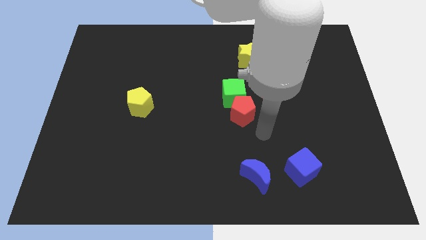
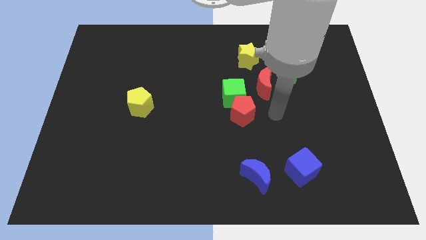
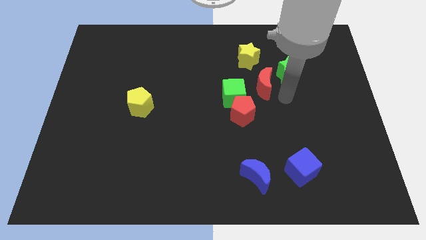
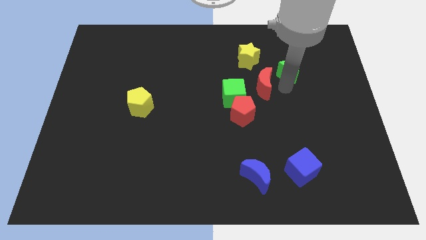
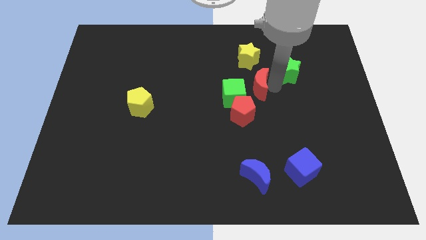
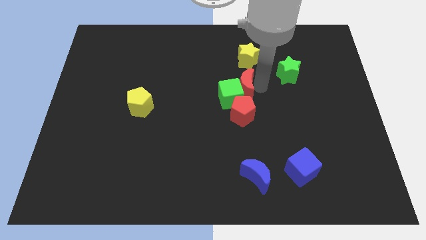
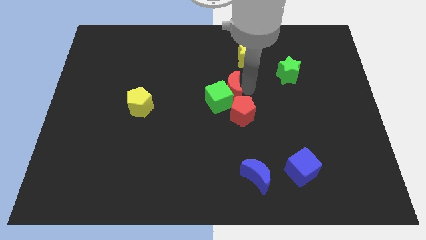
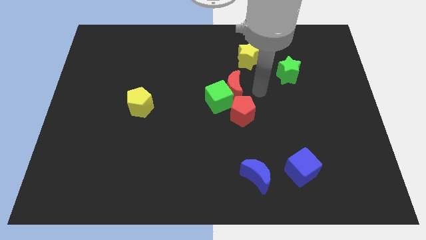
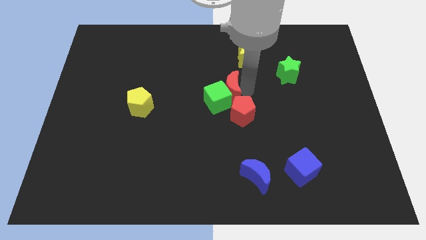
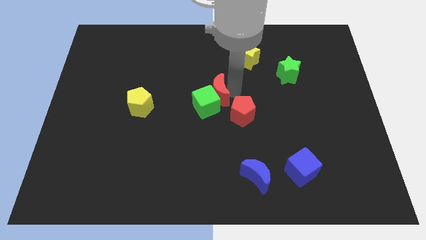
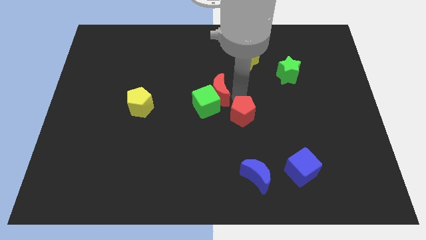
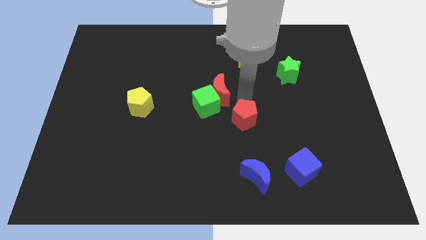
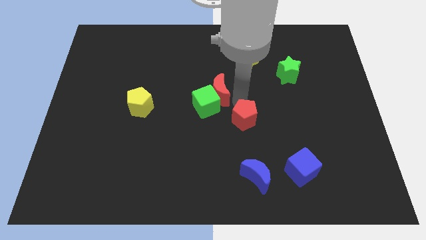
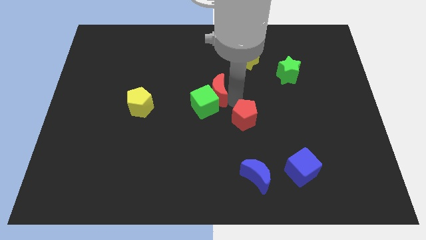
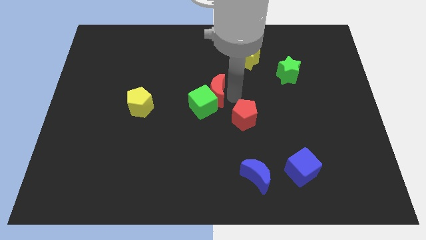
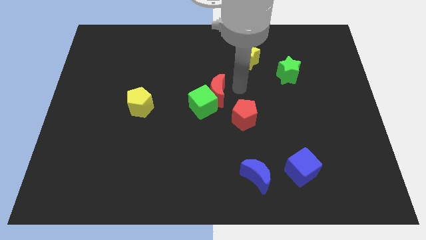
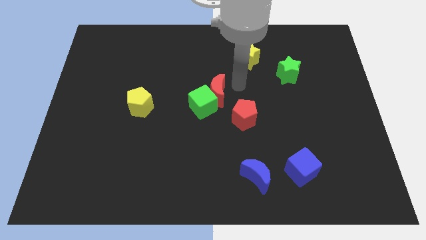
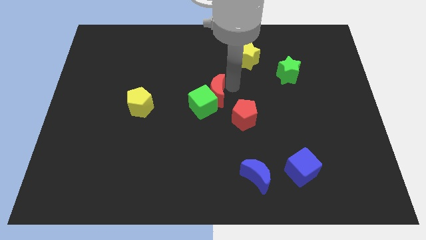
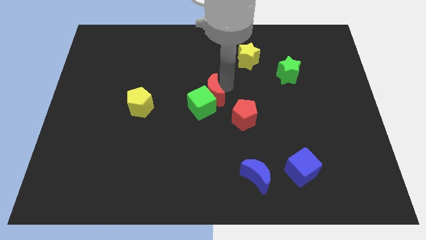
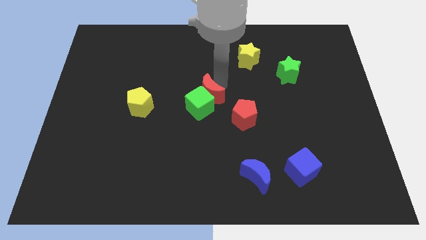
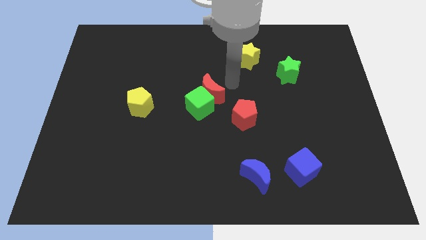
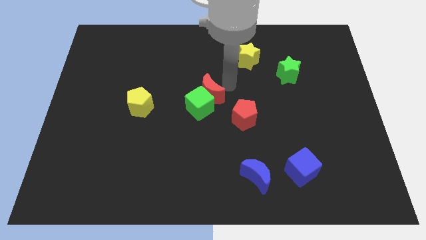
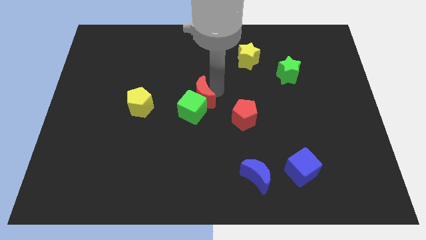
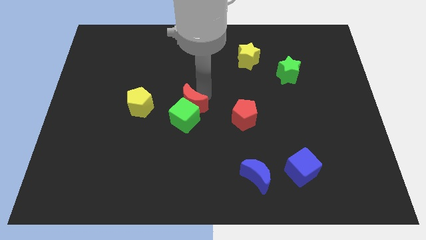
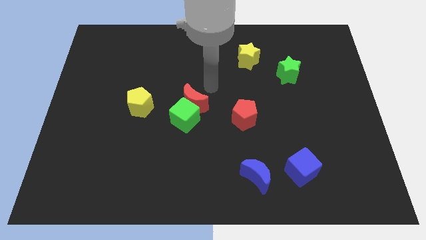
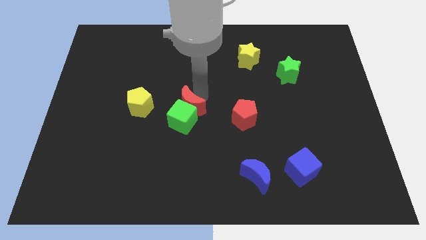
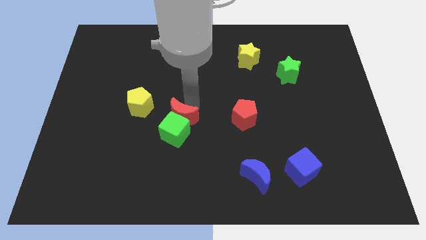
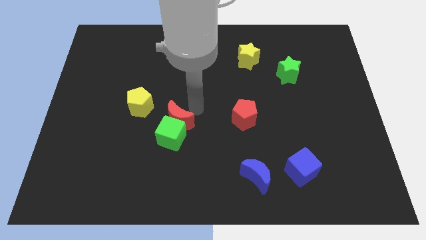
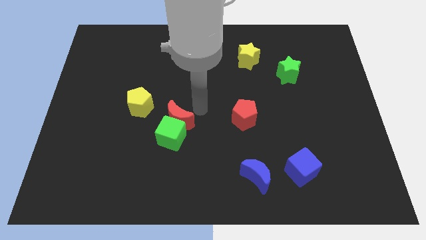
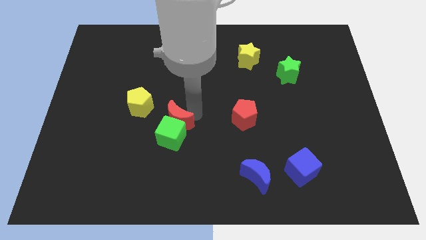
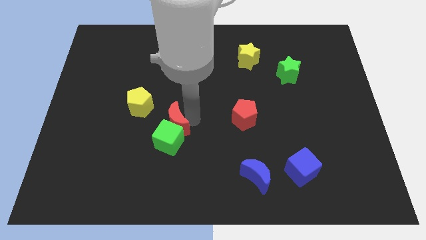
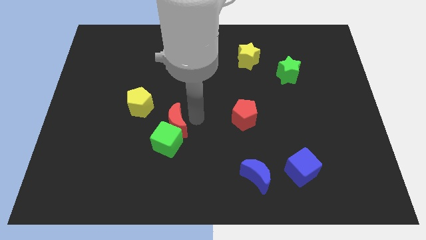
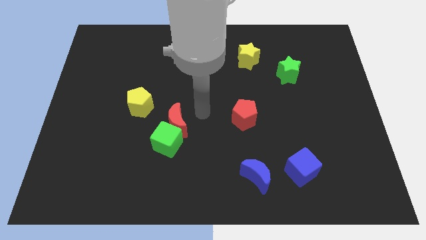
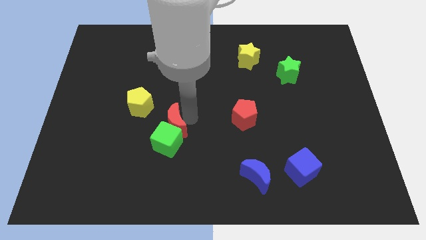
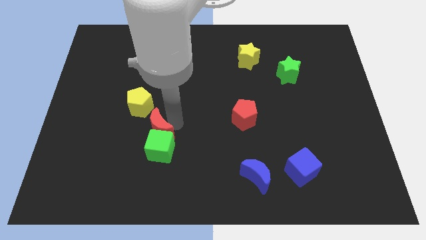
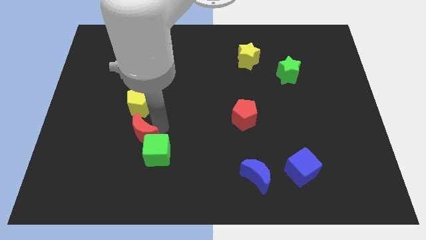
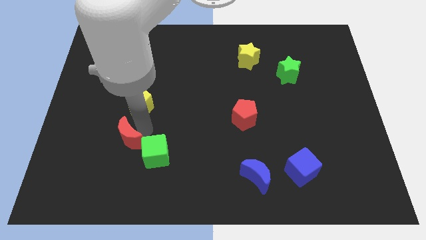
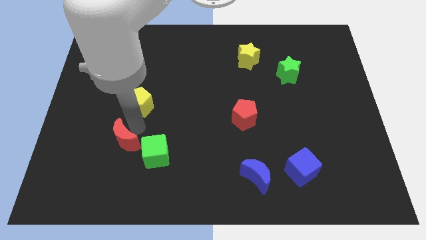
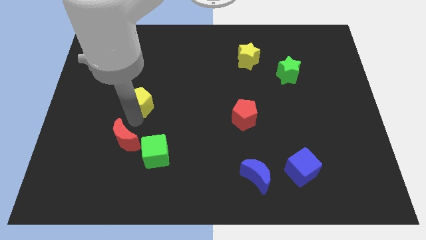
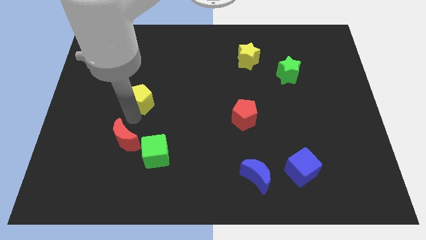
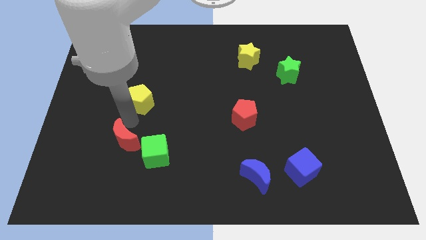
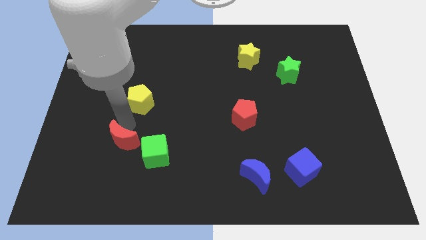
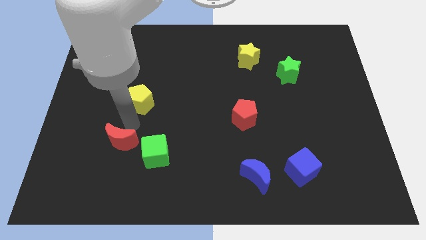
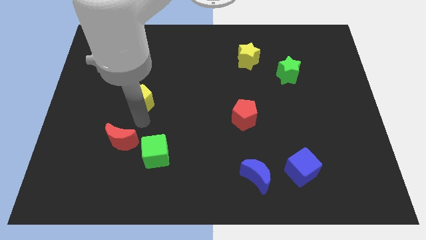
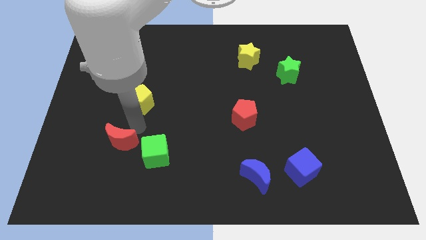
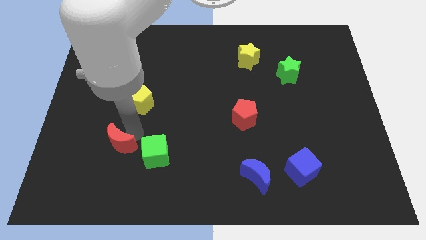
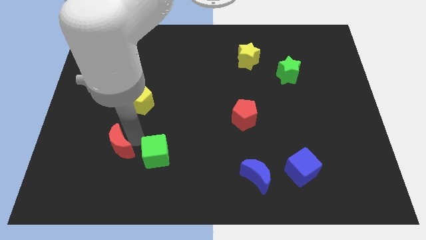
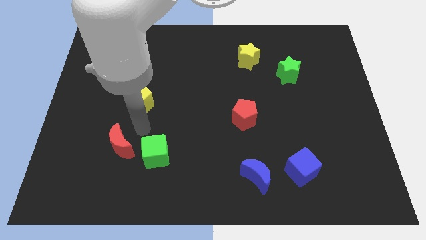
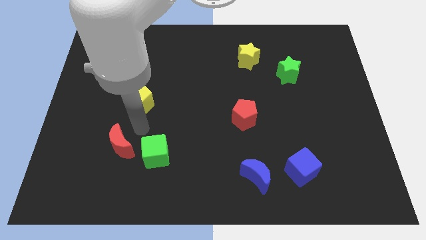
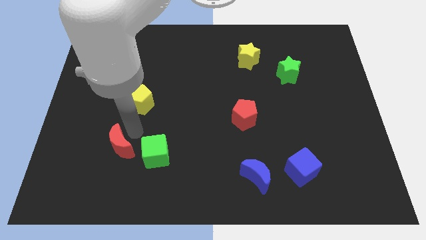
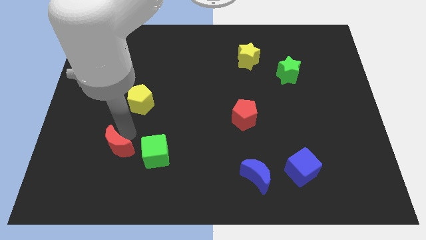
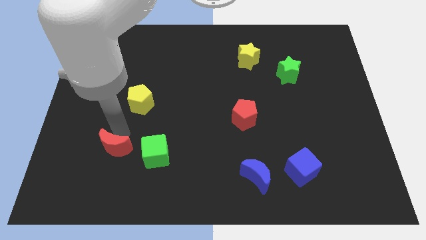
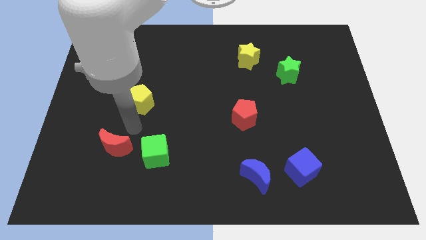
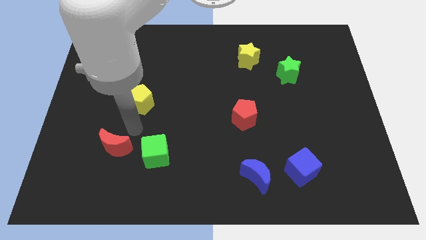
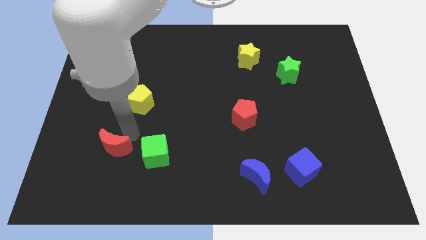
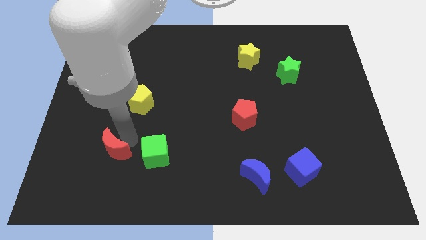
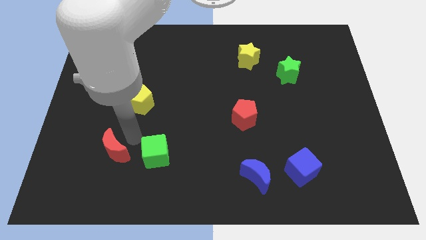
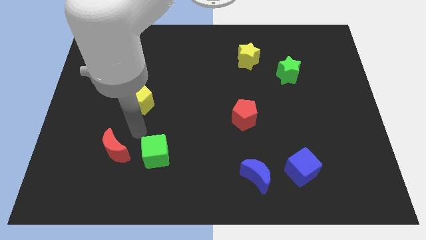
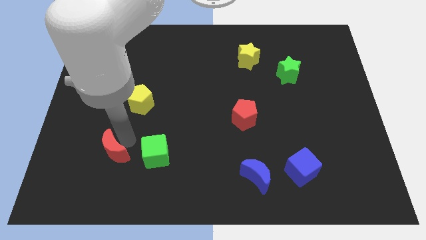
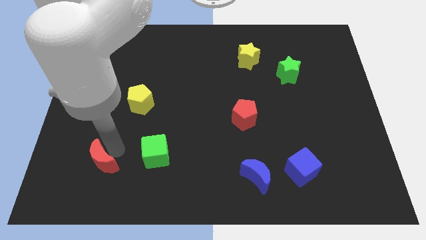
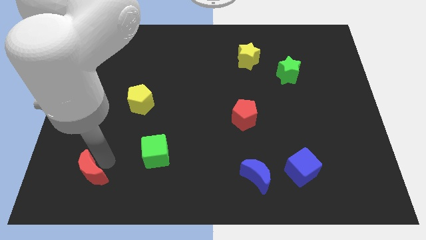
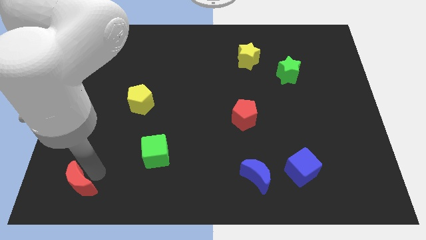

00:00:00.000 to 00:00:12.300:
put the red moon to the bottom left corner

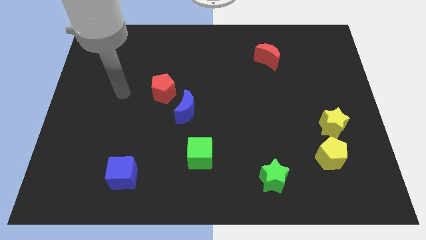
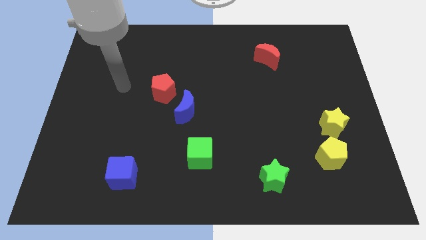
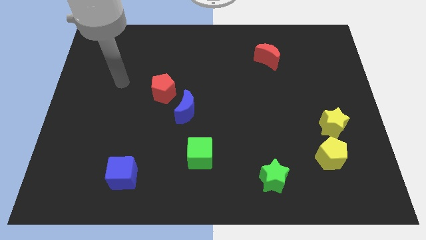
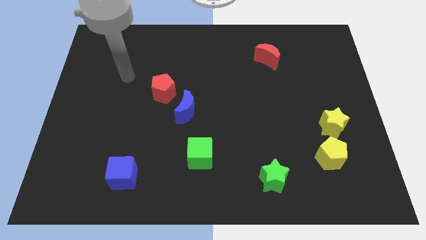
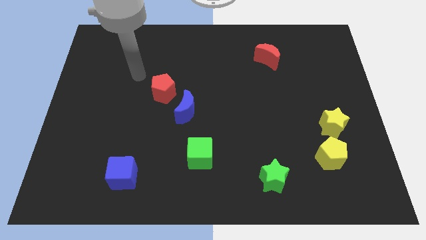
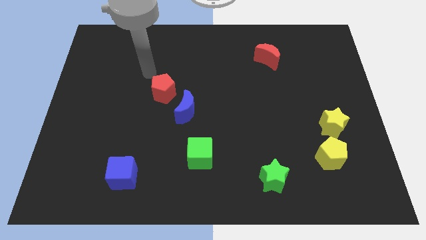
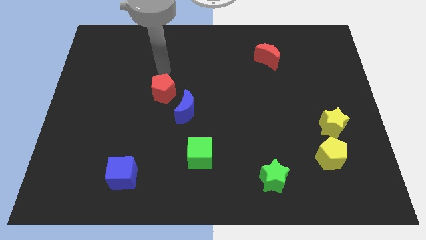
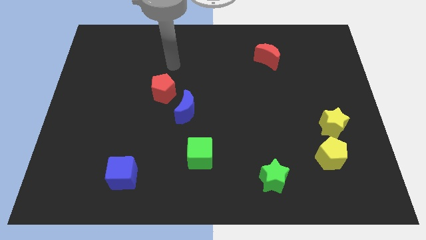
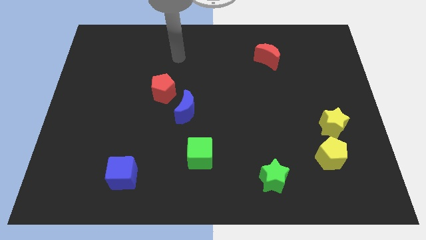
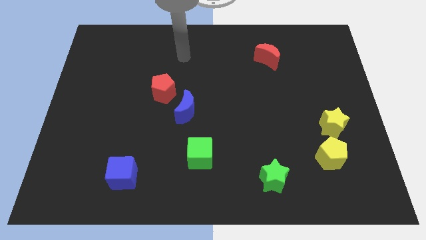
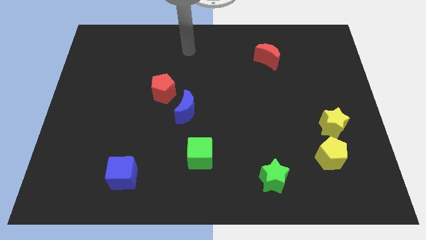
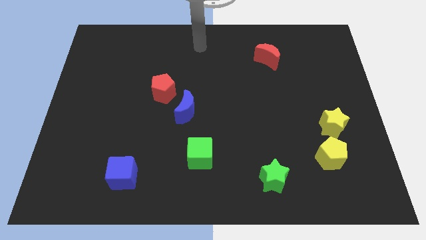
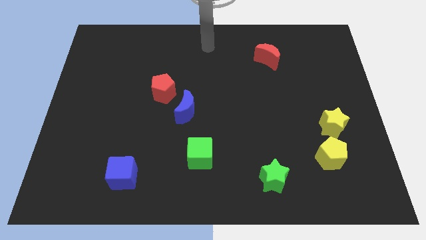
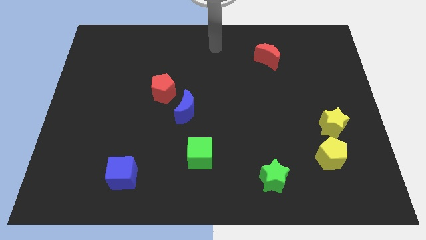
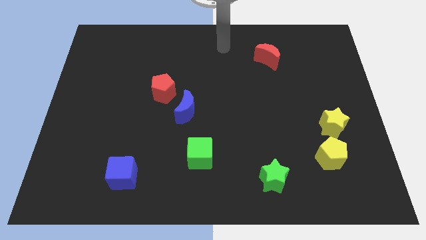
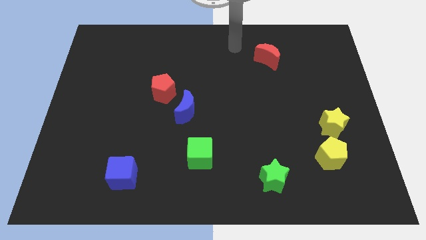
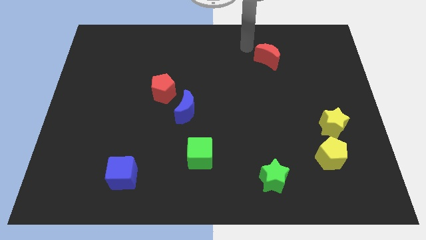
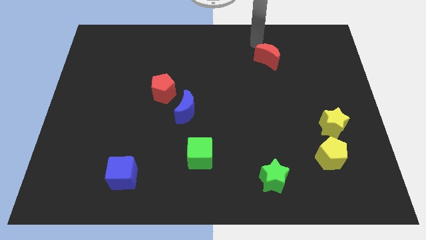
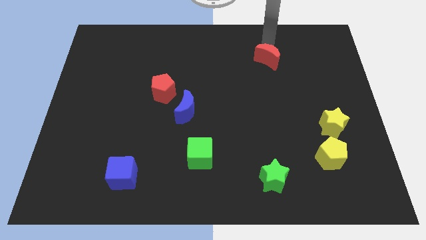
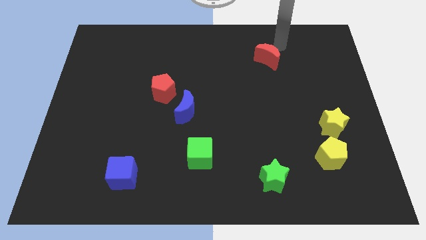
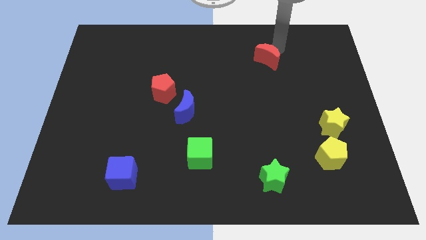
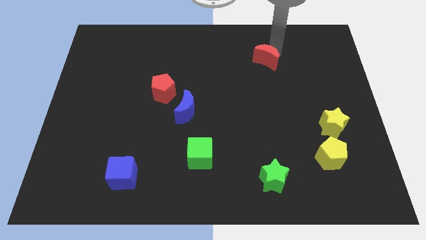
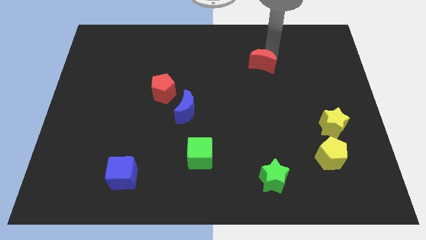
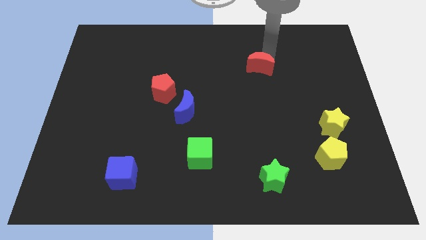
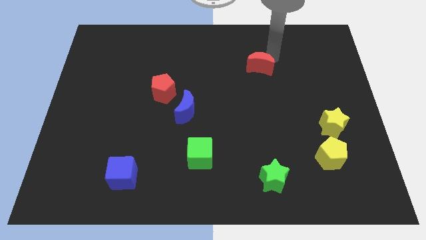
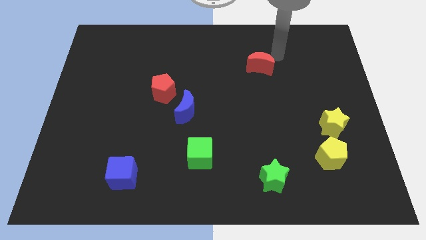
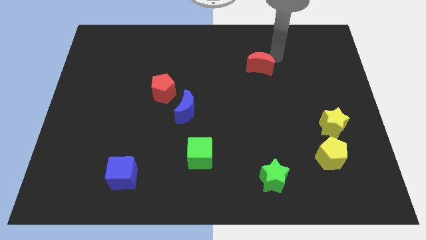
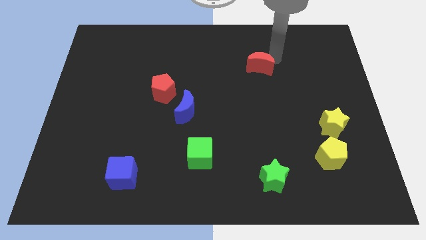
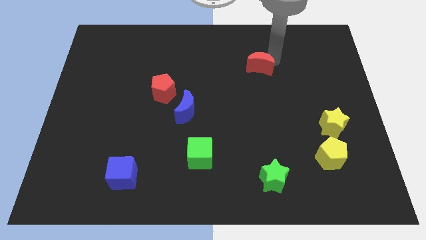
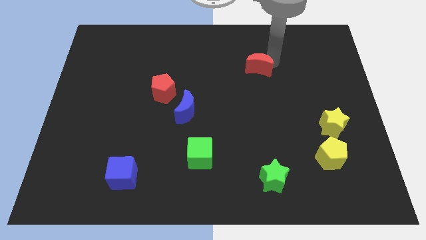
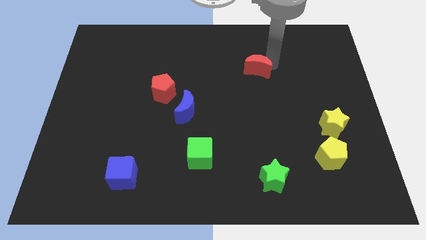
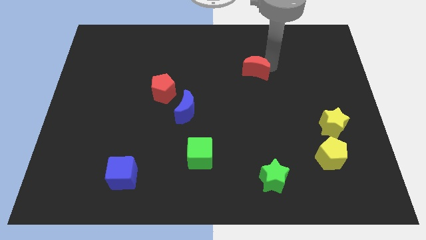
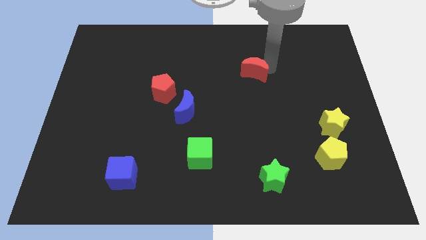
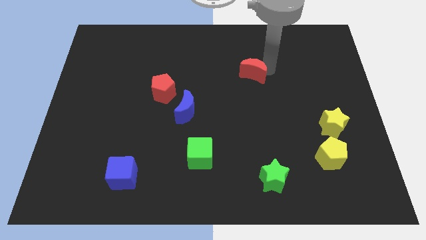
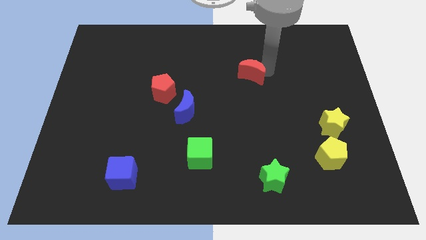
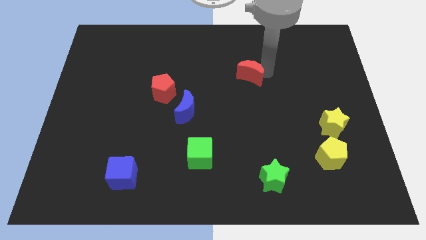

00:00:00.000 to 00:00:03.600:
move the red moon to the middle of the board
